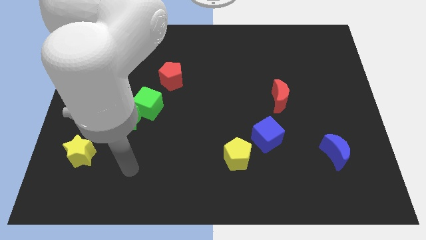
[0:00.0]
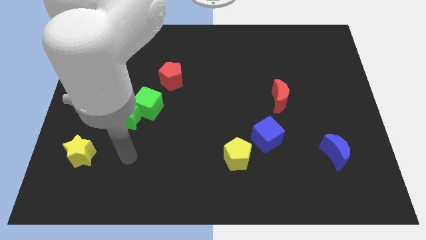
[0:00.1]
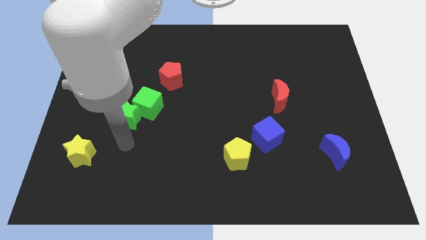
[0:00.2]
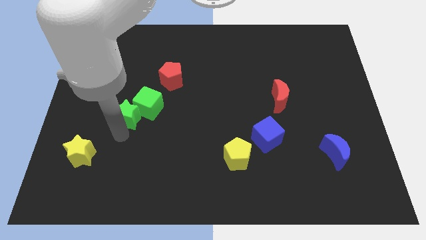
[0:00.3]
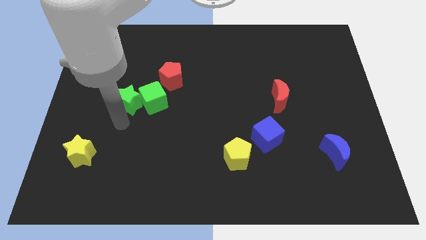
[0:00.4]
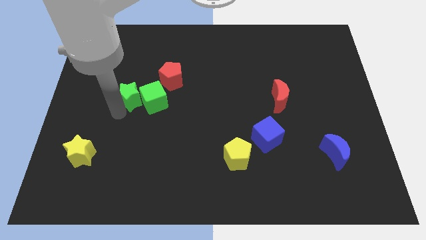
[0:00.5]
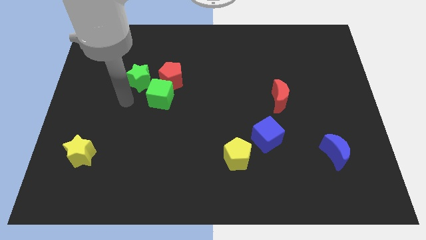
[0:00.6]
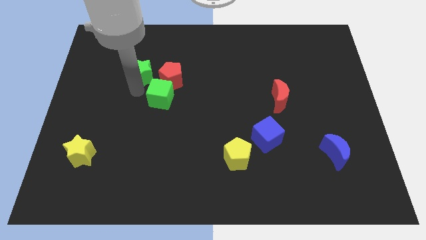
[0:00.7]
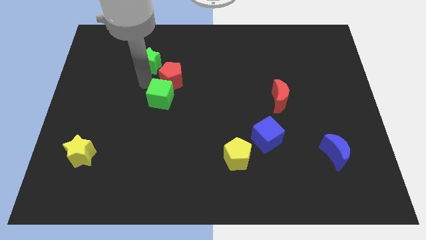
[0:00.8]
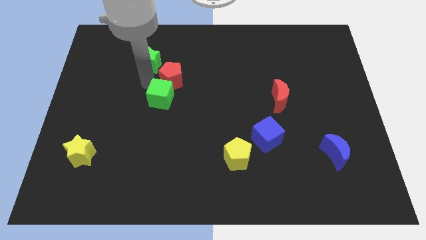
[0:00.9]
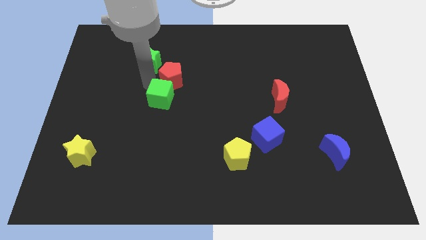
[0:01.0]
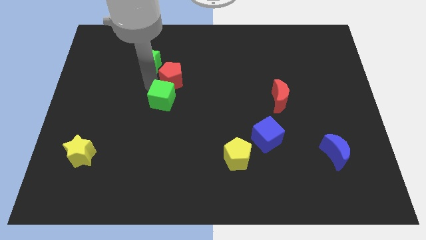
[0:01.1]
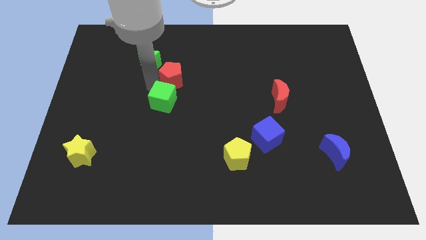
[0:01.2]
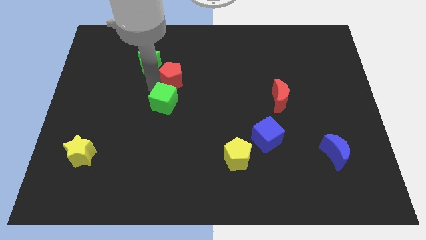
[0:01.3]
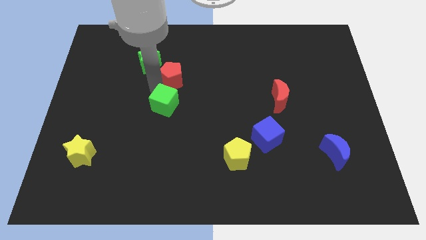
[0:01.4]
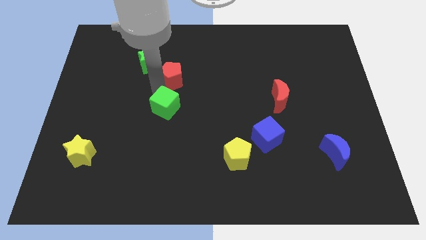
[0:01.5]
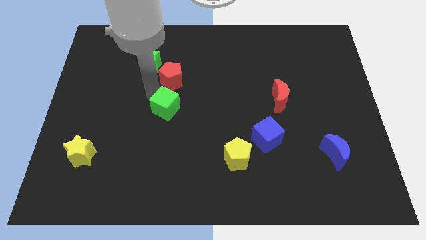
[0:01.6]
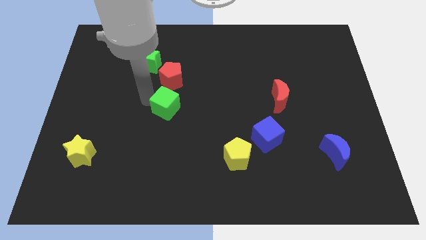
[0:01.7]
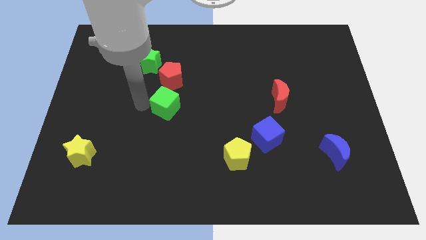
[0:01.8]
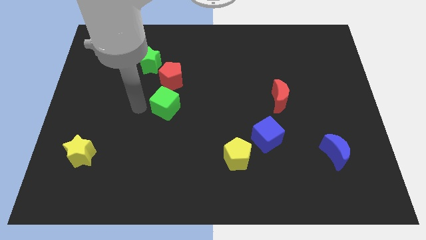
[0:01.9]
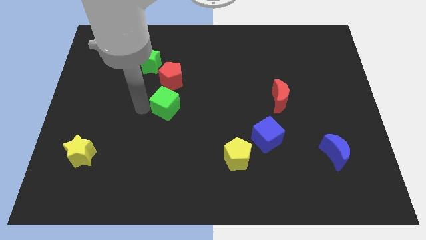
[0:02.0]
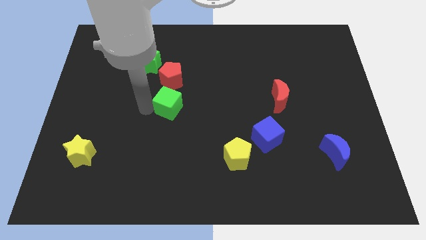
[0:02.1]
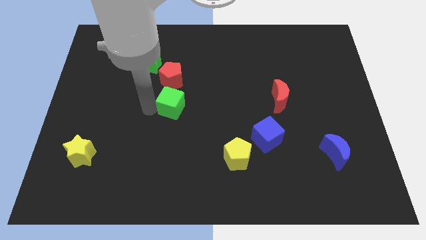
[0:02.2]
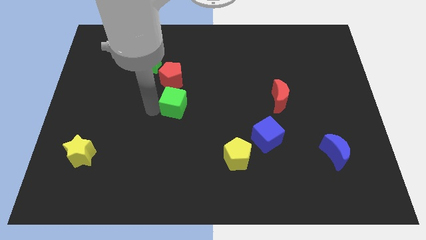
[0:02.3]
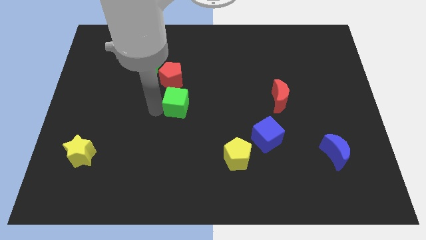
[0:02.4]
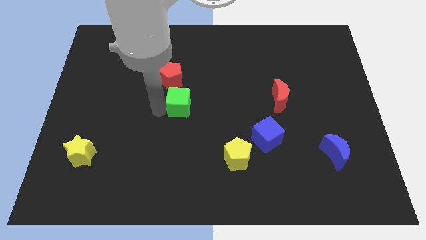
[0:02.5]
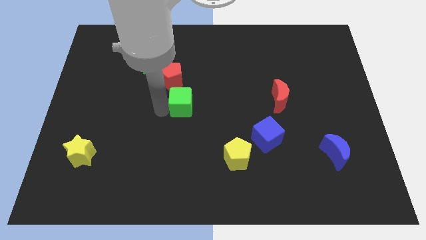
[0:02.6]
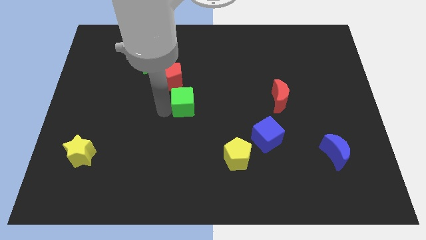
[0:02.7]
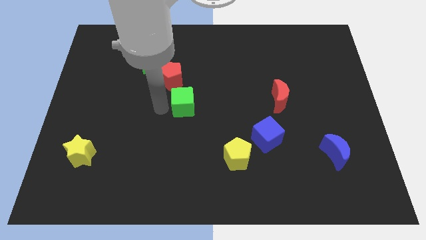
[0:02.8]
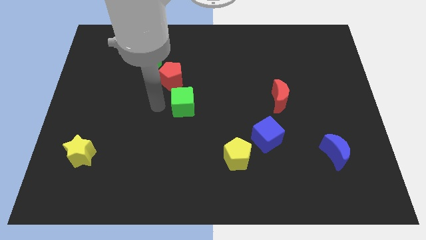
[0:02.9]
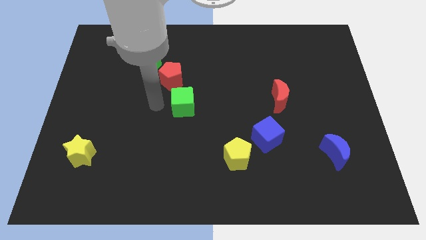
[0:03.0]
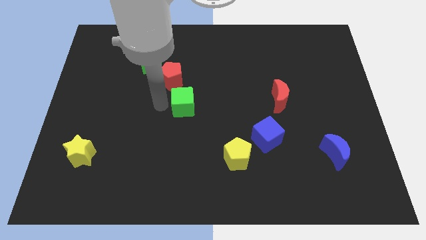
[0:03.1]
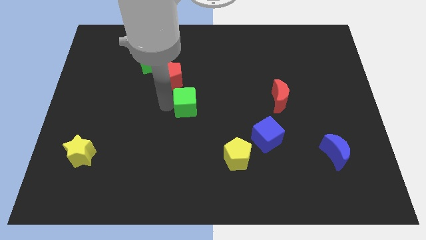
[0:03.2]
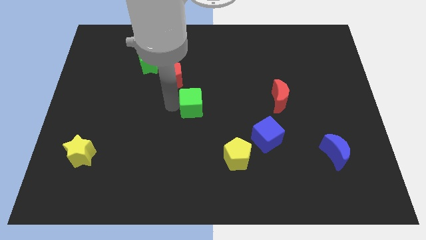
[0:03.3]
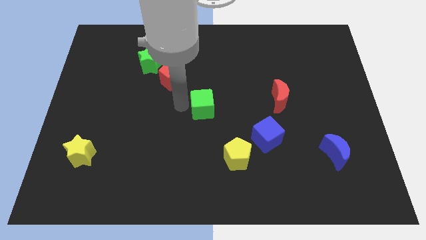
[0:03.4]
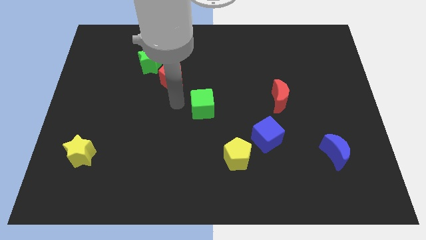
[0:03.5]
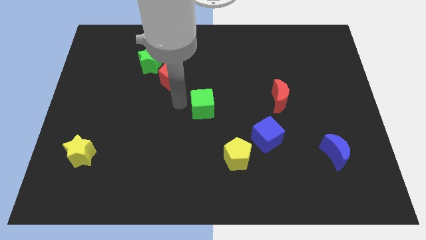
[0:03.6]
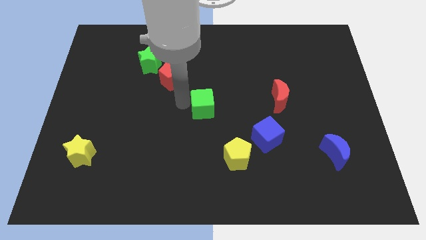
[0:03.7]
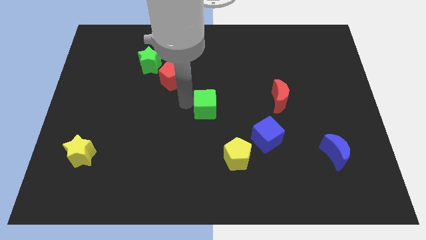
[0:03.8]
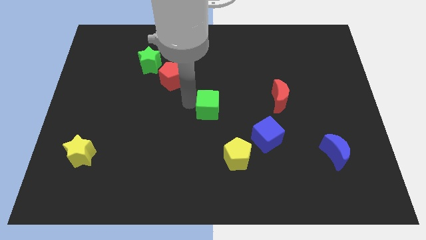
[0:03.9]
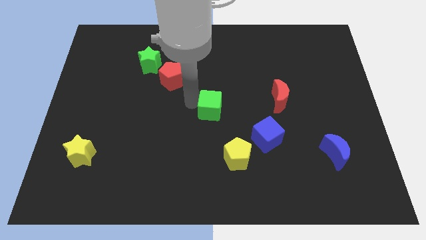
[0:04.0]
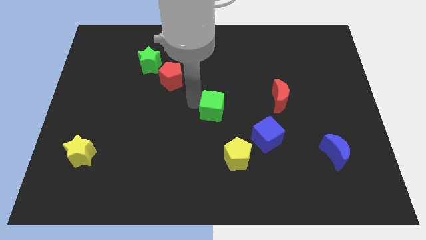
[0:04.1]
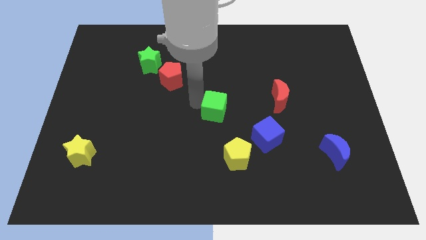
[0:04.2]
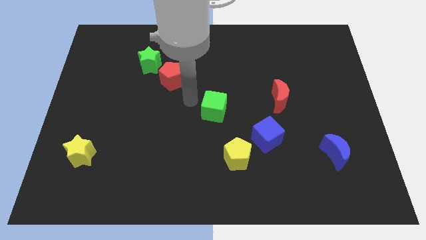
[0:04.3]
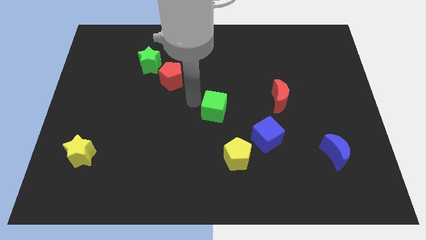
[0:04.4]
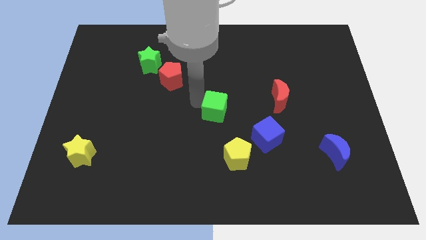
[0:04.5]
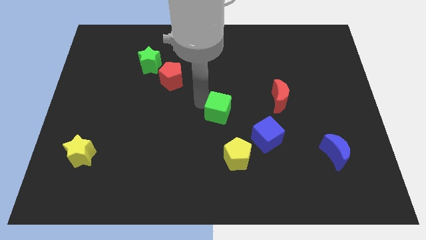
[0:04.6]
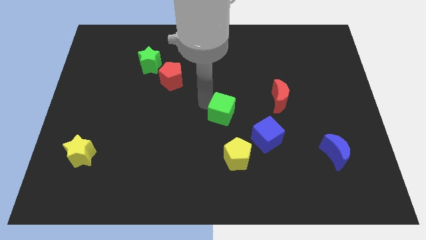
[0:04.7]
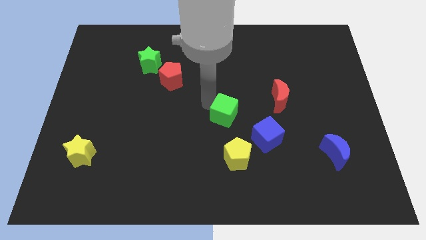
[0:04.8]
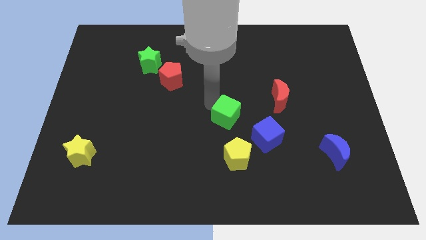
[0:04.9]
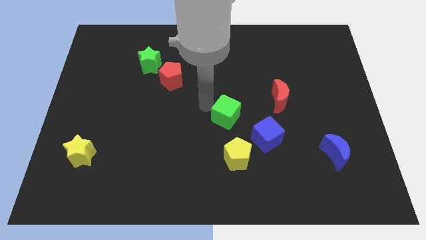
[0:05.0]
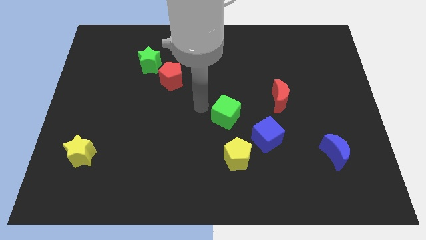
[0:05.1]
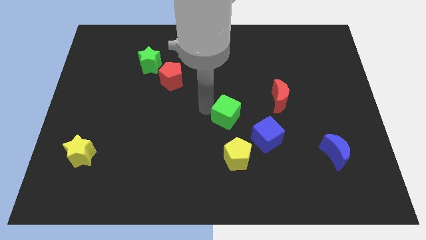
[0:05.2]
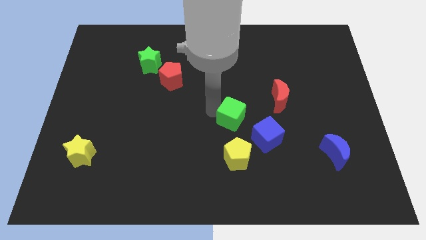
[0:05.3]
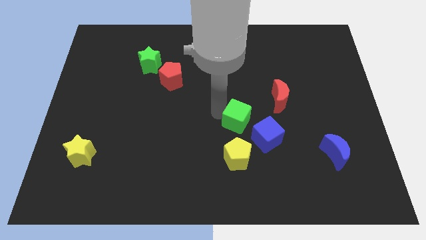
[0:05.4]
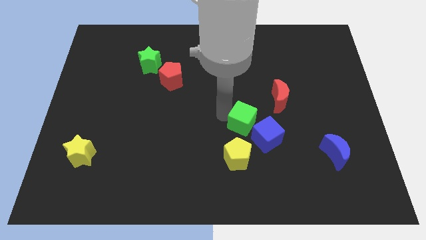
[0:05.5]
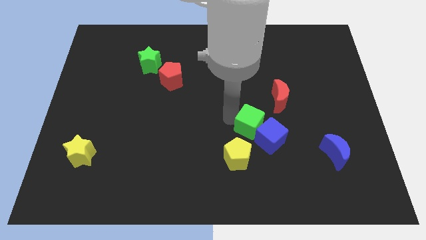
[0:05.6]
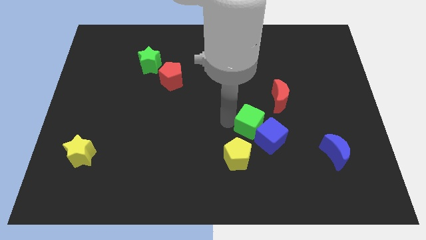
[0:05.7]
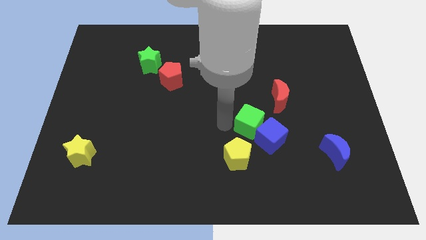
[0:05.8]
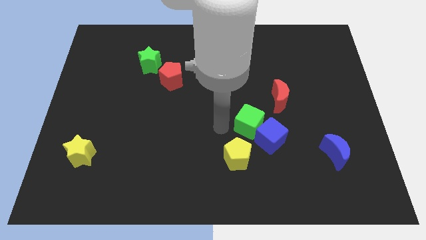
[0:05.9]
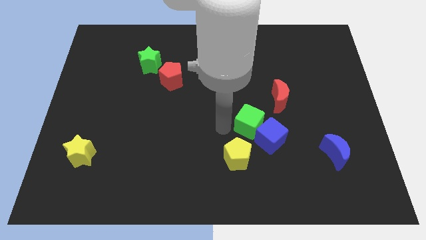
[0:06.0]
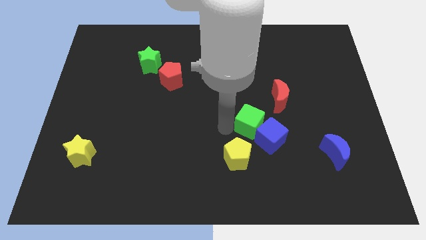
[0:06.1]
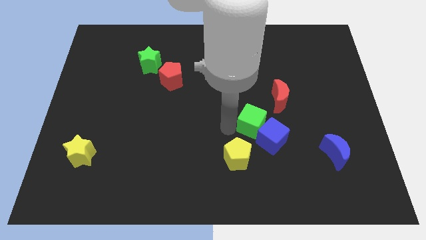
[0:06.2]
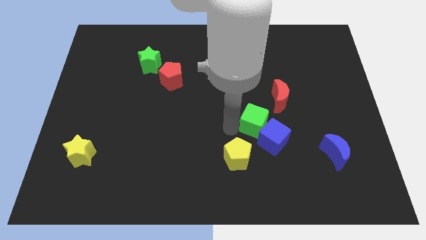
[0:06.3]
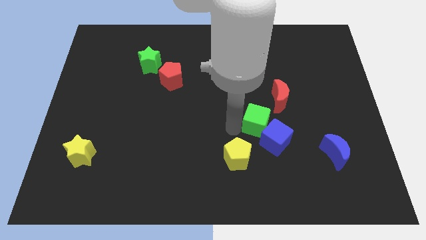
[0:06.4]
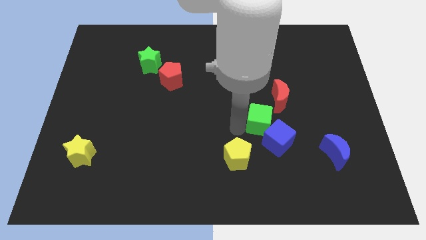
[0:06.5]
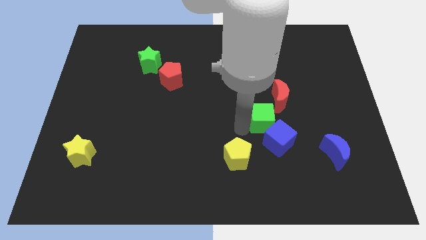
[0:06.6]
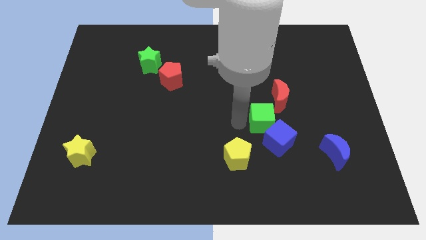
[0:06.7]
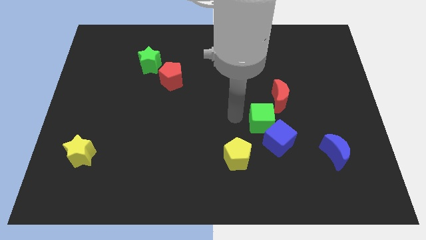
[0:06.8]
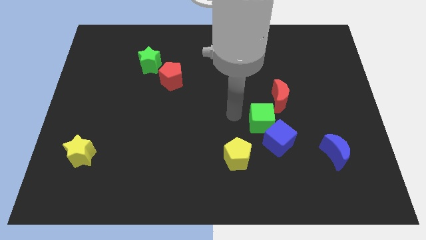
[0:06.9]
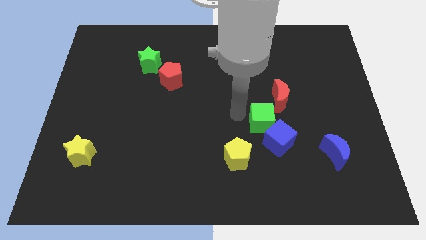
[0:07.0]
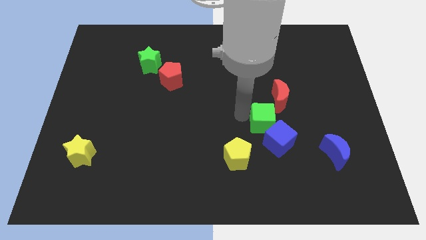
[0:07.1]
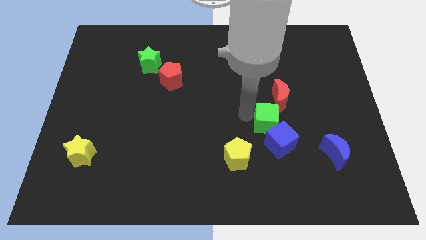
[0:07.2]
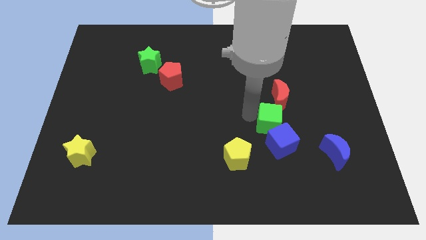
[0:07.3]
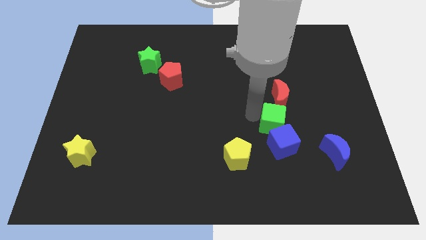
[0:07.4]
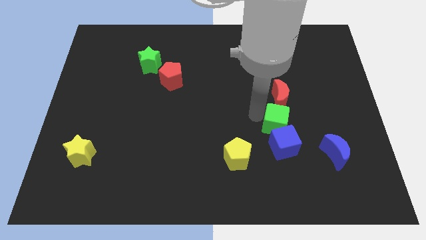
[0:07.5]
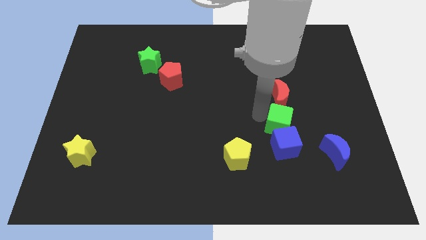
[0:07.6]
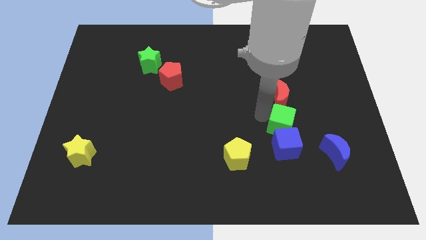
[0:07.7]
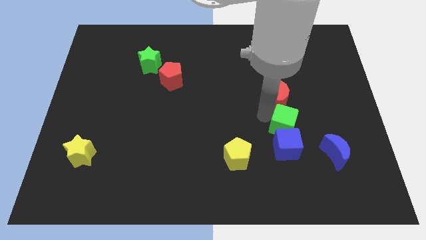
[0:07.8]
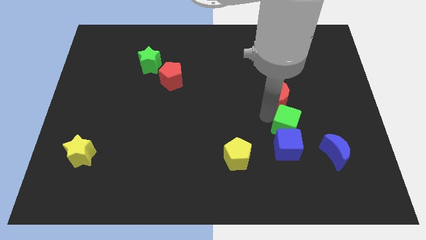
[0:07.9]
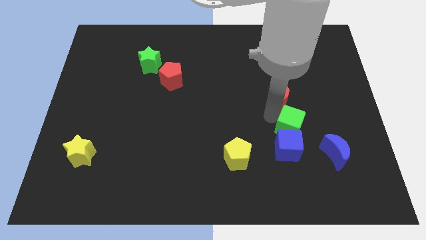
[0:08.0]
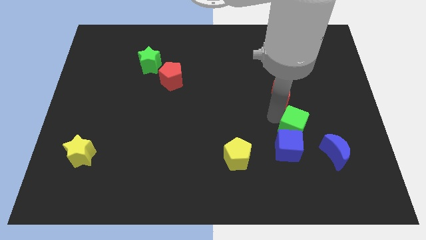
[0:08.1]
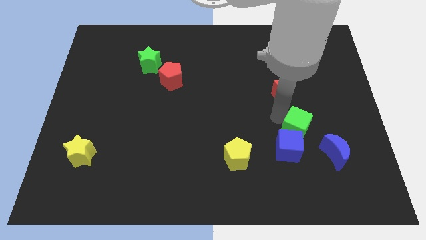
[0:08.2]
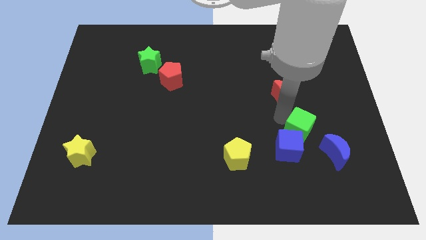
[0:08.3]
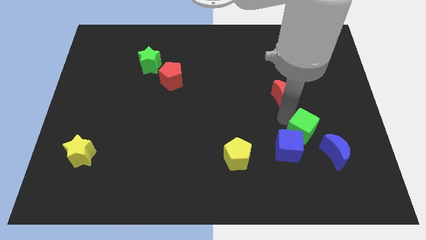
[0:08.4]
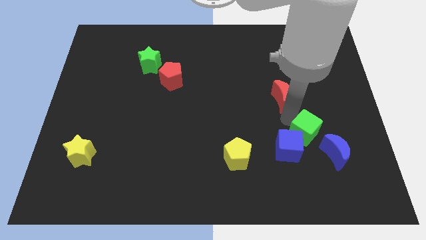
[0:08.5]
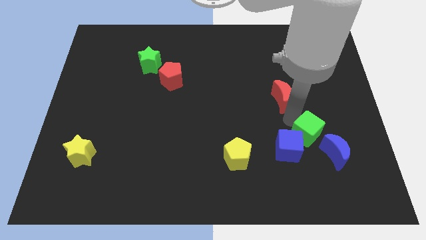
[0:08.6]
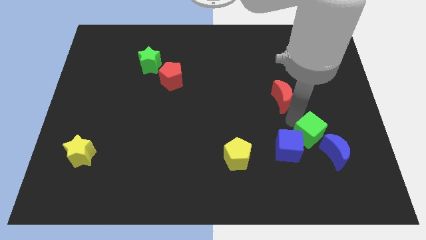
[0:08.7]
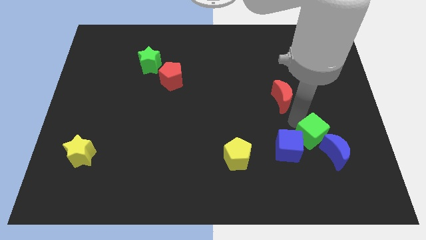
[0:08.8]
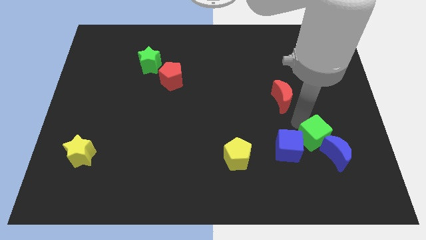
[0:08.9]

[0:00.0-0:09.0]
move the green cube to the blue moon
